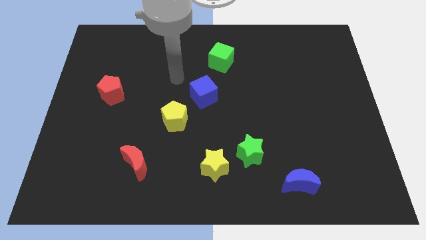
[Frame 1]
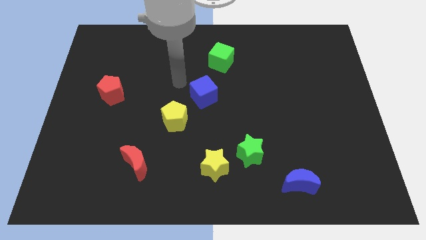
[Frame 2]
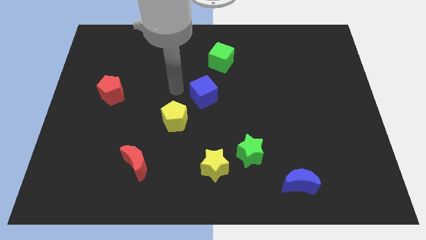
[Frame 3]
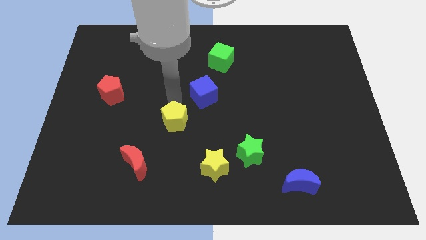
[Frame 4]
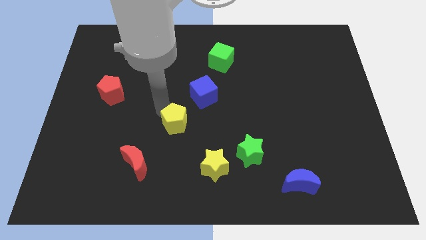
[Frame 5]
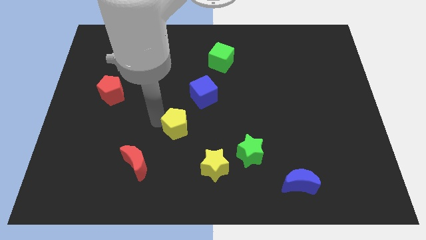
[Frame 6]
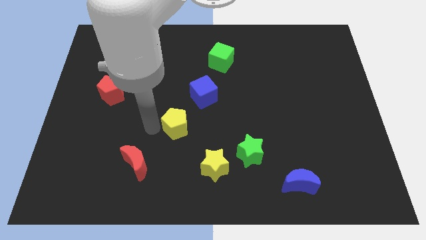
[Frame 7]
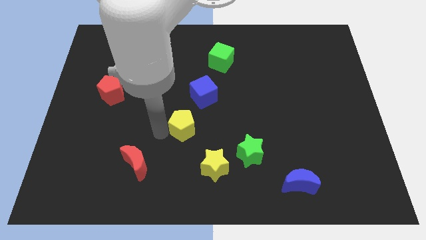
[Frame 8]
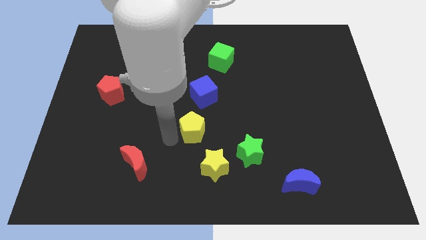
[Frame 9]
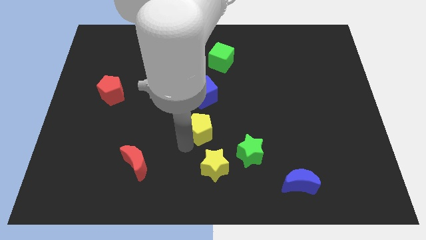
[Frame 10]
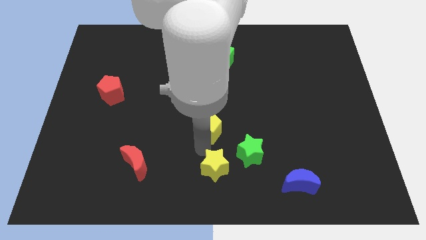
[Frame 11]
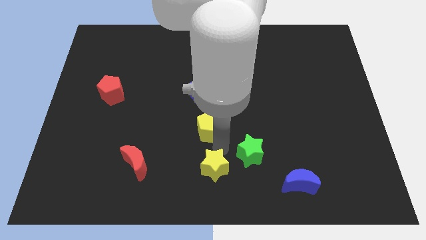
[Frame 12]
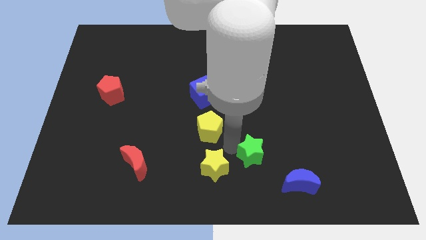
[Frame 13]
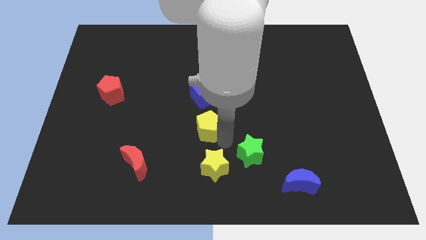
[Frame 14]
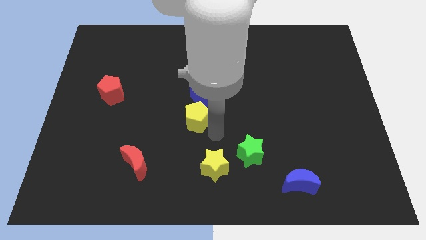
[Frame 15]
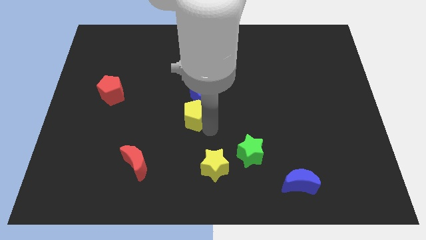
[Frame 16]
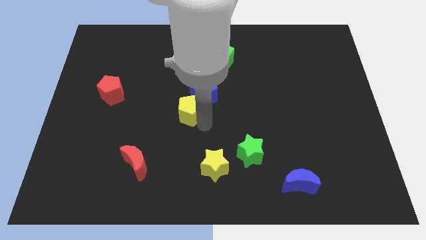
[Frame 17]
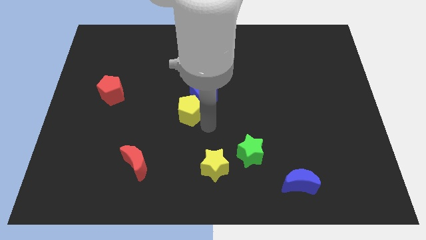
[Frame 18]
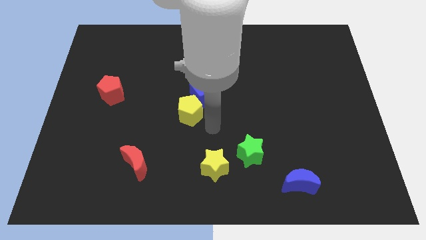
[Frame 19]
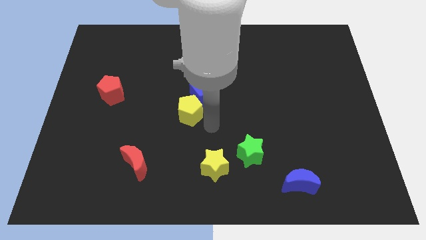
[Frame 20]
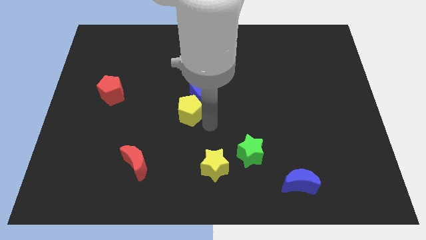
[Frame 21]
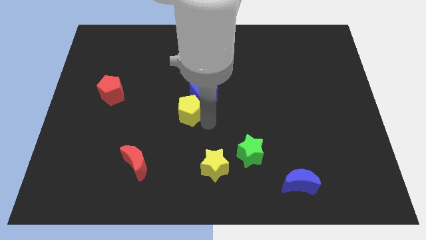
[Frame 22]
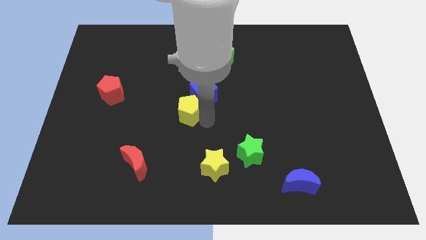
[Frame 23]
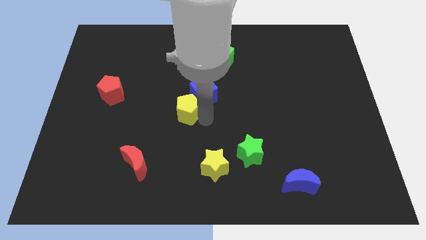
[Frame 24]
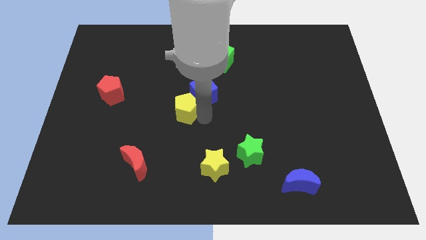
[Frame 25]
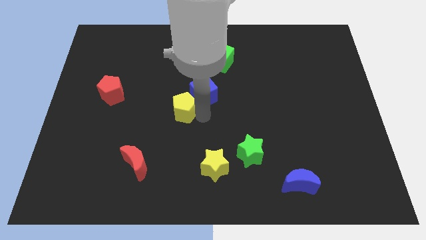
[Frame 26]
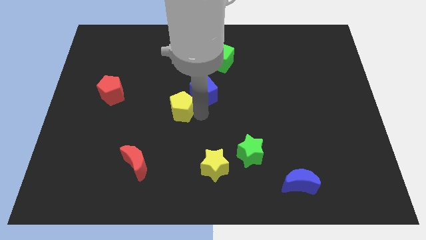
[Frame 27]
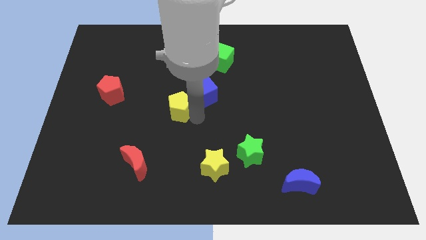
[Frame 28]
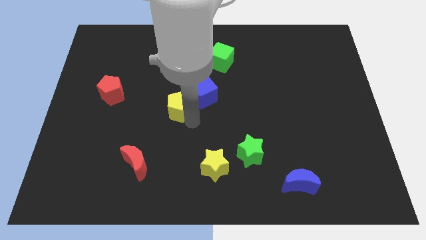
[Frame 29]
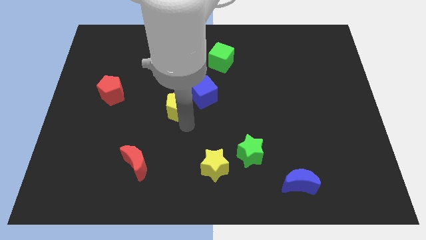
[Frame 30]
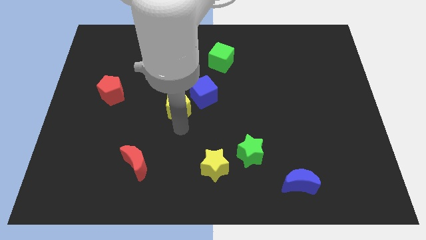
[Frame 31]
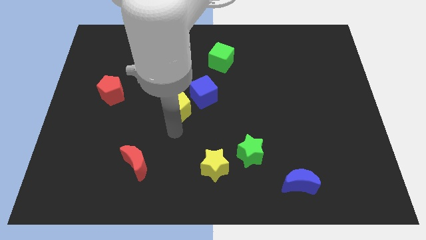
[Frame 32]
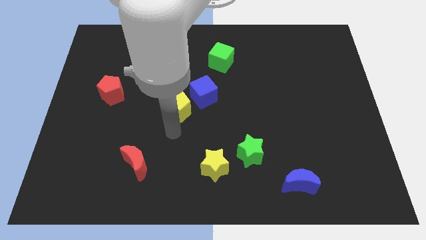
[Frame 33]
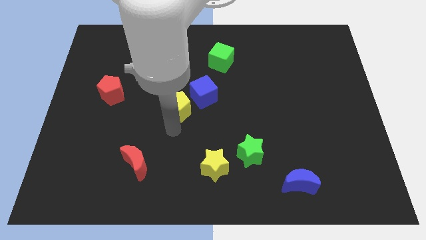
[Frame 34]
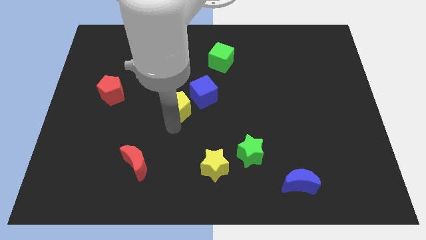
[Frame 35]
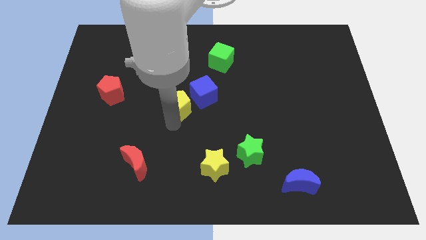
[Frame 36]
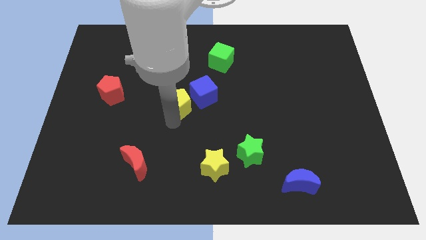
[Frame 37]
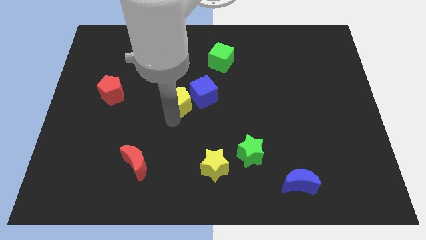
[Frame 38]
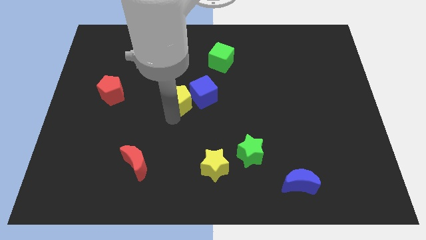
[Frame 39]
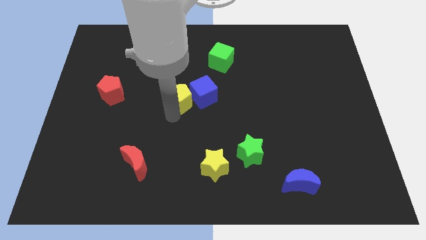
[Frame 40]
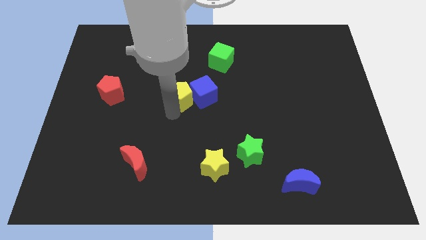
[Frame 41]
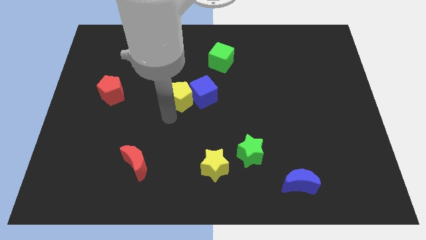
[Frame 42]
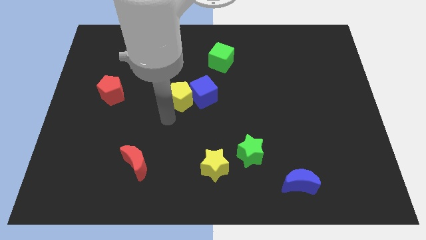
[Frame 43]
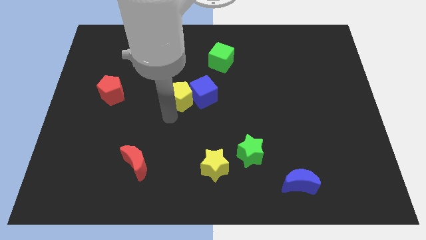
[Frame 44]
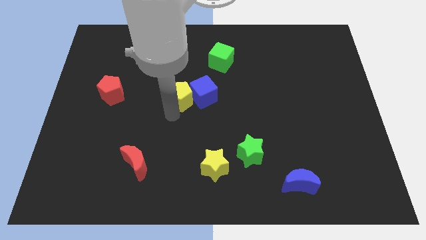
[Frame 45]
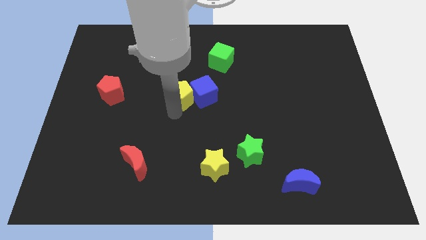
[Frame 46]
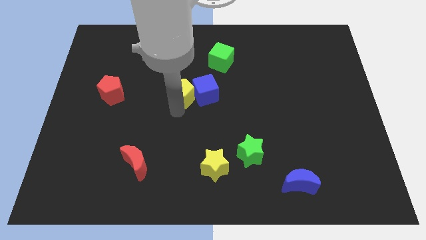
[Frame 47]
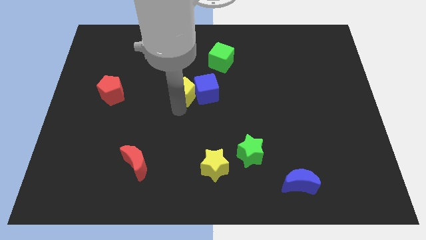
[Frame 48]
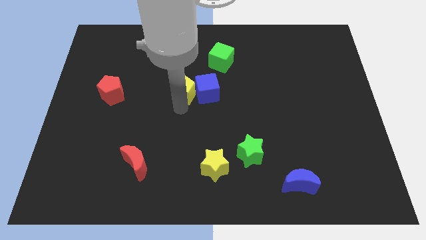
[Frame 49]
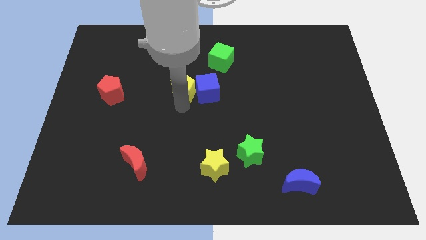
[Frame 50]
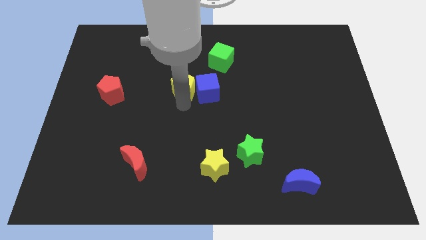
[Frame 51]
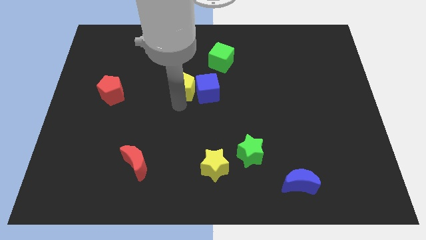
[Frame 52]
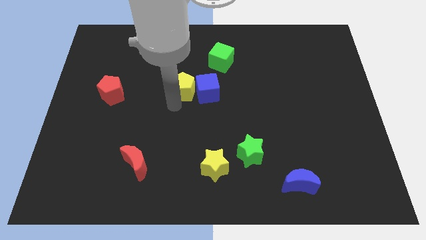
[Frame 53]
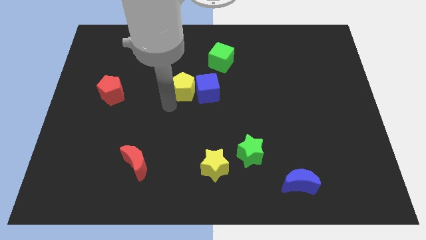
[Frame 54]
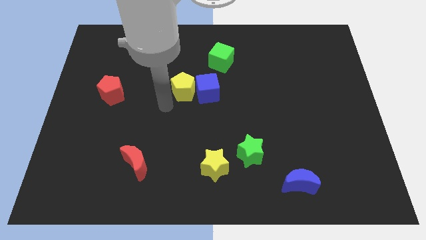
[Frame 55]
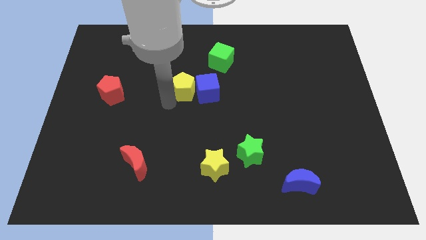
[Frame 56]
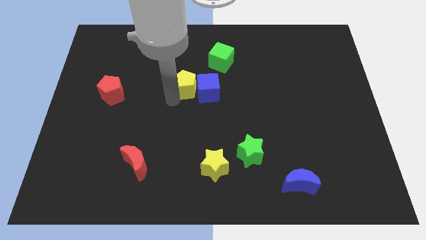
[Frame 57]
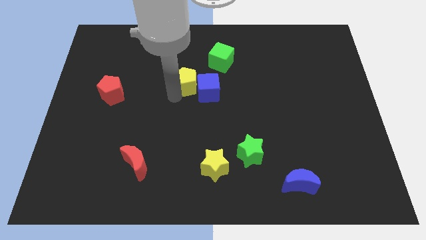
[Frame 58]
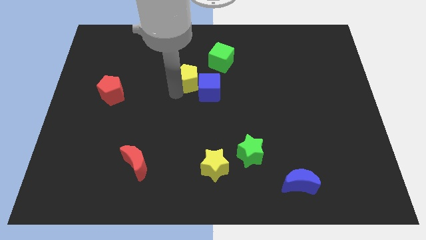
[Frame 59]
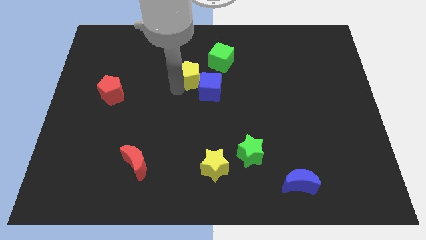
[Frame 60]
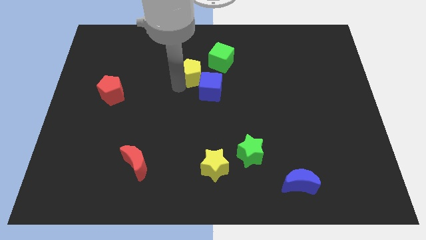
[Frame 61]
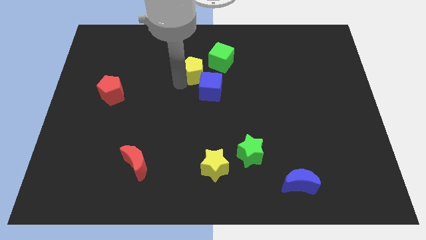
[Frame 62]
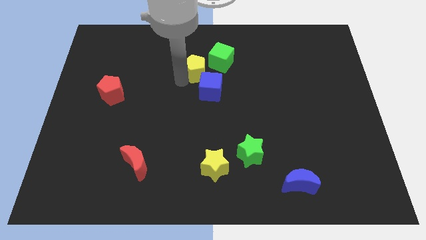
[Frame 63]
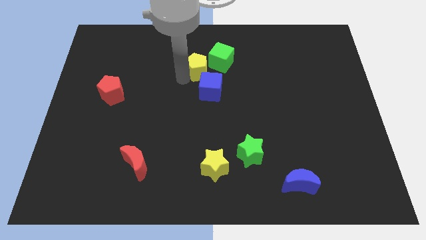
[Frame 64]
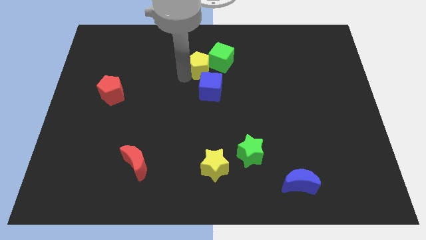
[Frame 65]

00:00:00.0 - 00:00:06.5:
push the yellow pentagon next to the green cube

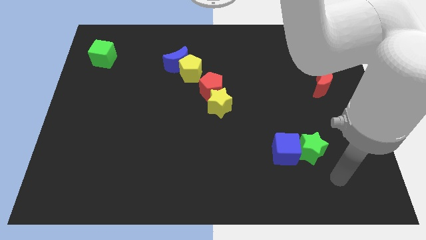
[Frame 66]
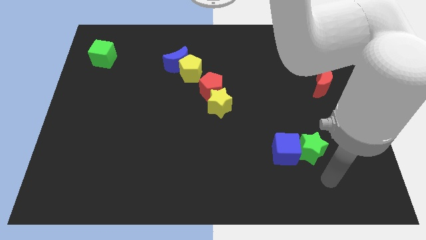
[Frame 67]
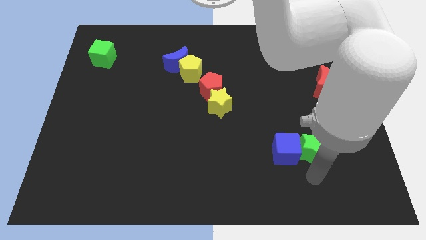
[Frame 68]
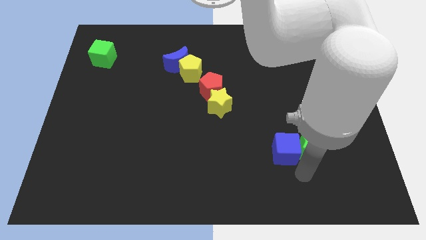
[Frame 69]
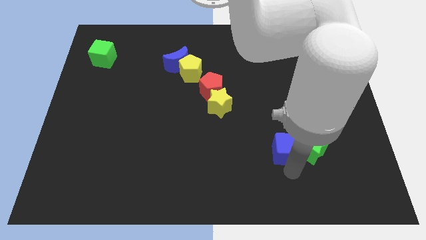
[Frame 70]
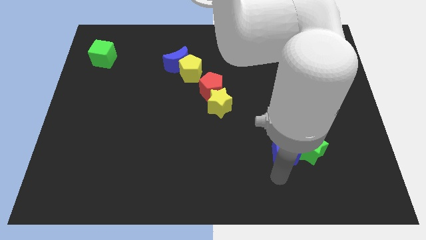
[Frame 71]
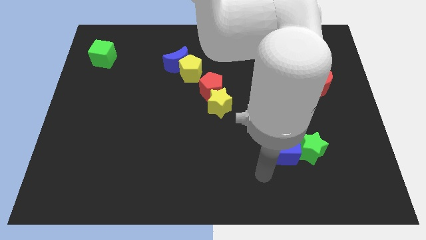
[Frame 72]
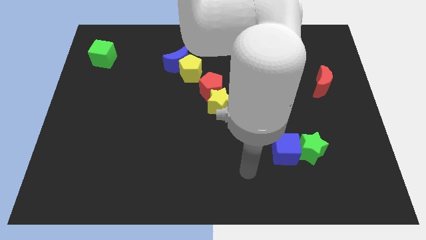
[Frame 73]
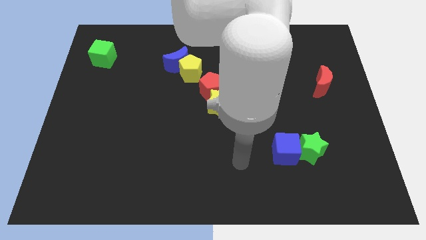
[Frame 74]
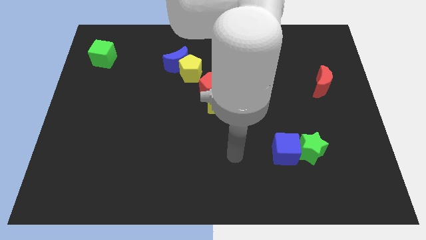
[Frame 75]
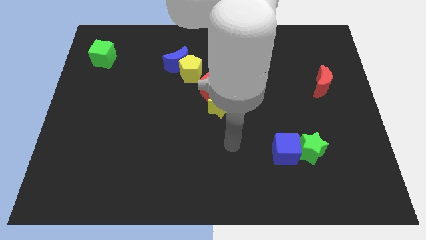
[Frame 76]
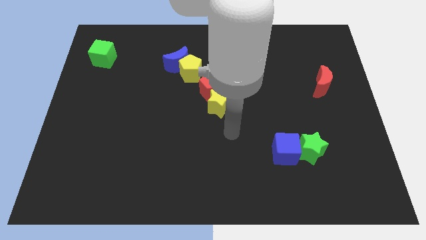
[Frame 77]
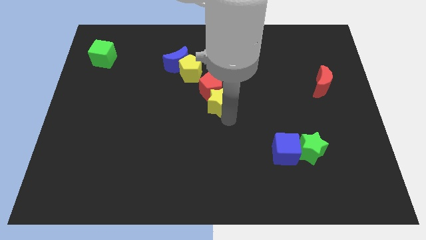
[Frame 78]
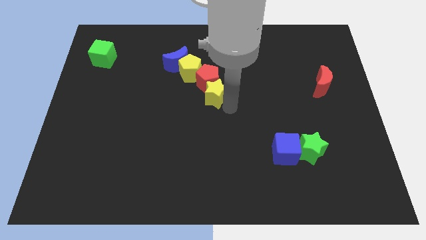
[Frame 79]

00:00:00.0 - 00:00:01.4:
push the red pentagon to the yellow pentagon
